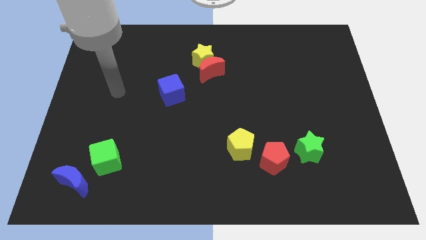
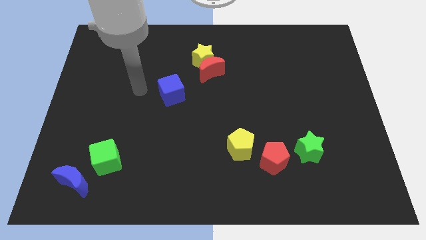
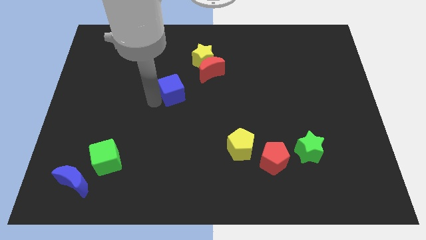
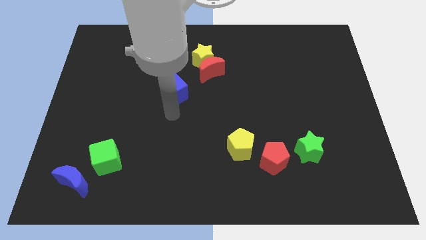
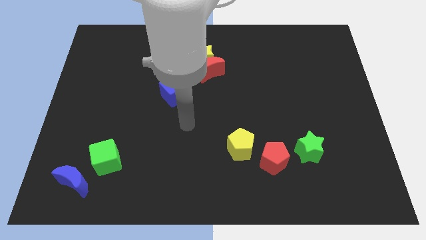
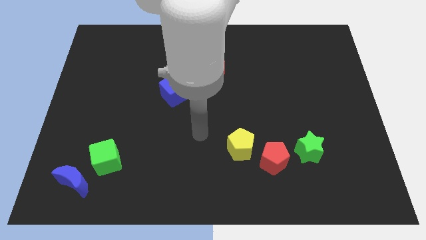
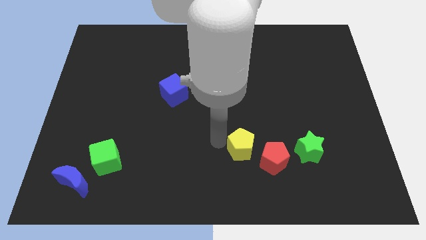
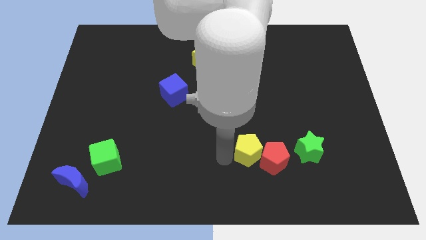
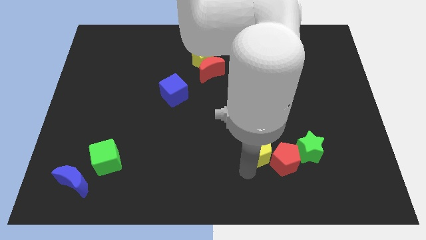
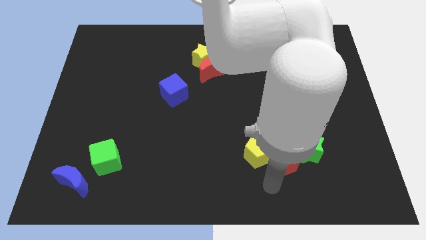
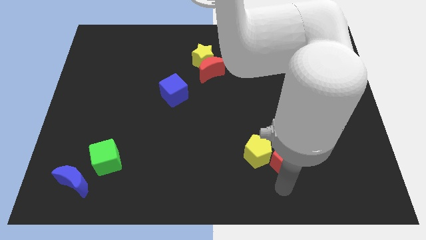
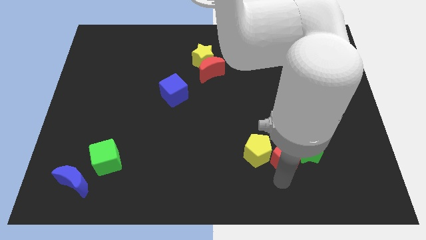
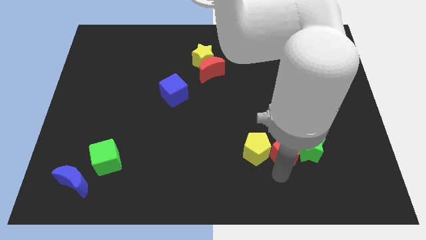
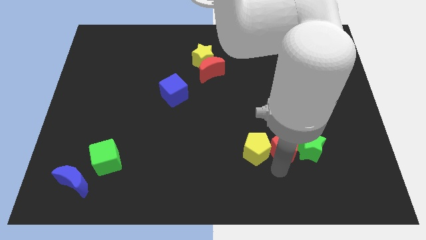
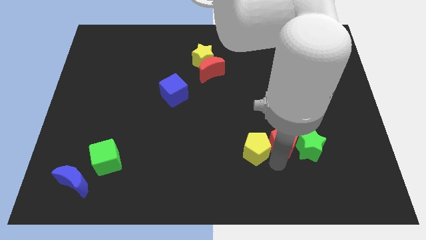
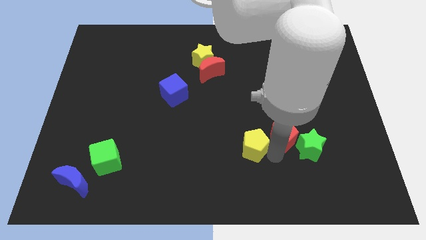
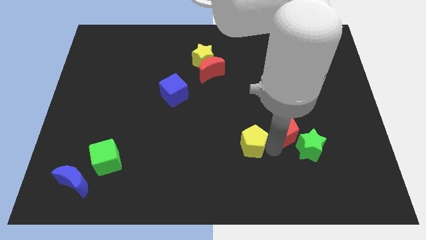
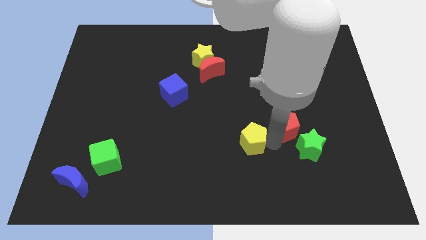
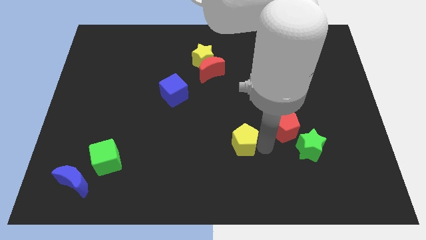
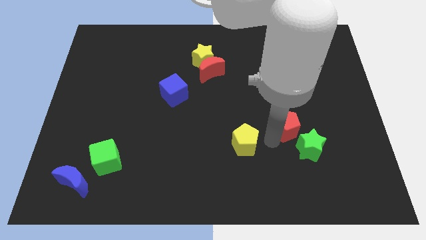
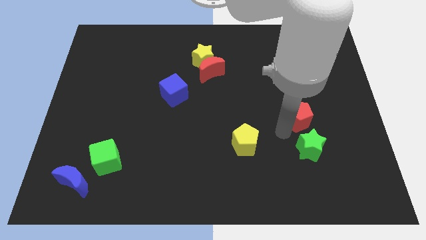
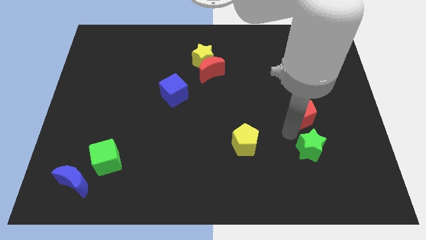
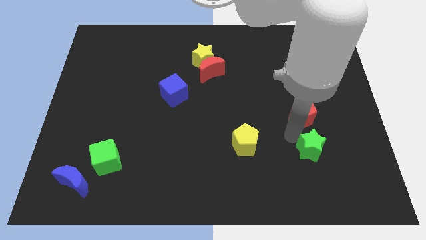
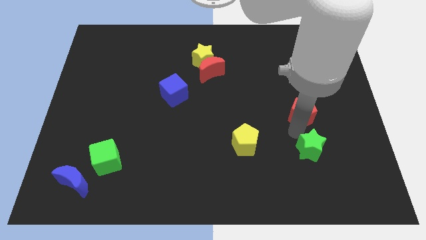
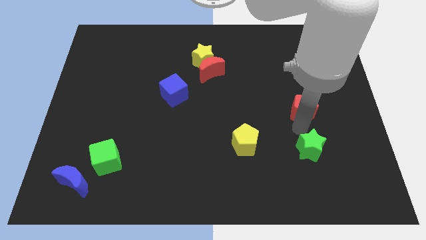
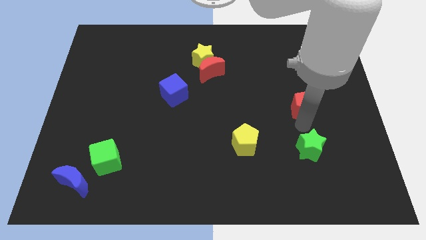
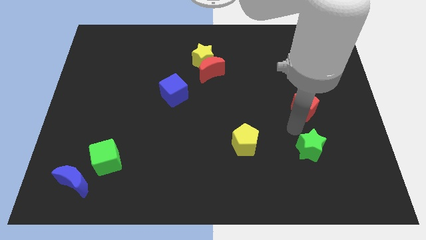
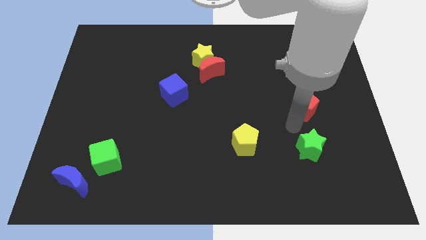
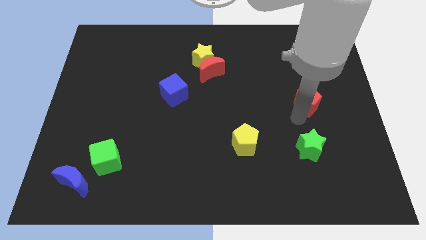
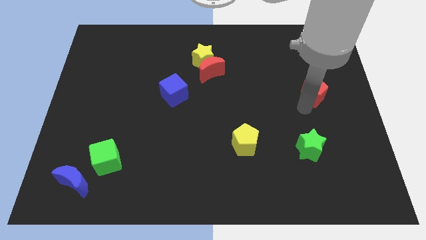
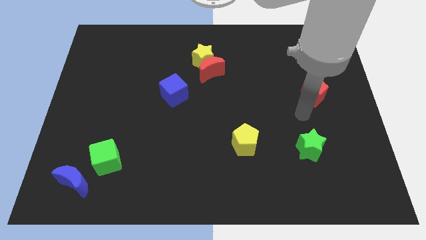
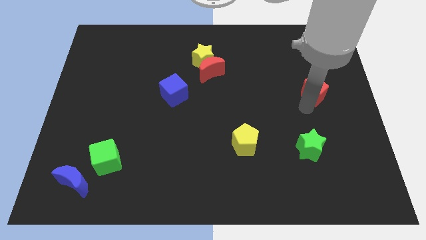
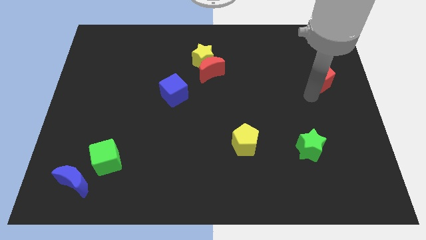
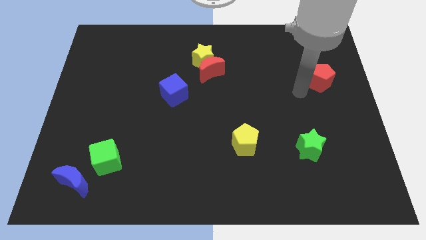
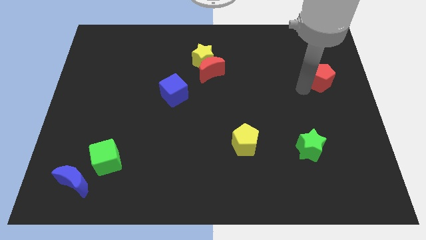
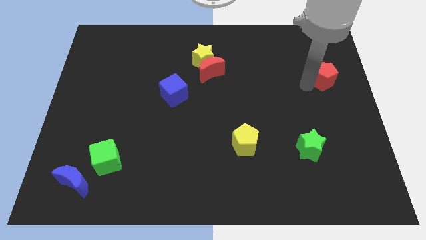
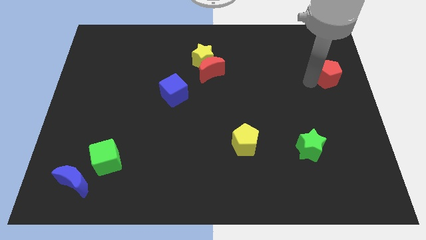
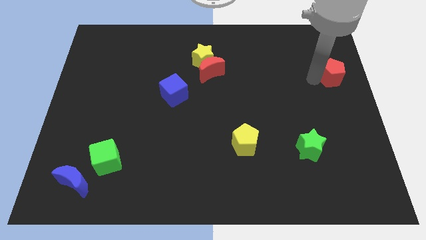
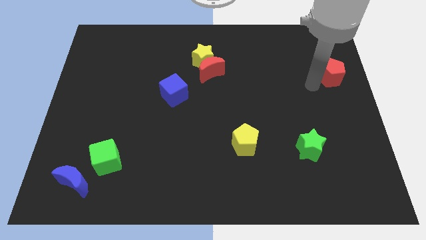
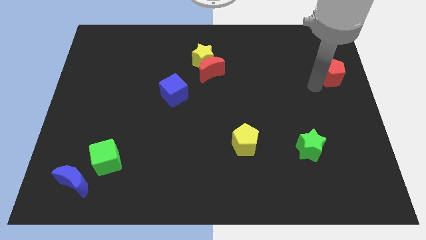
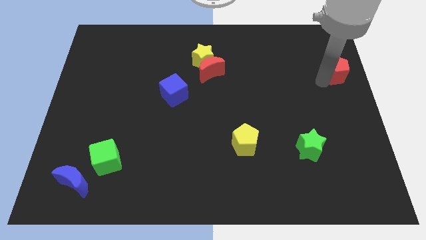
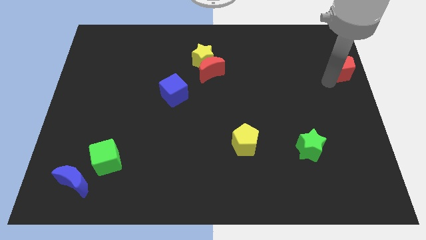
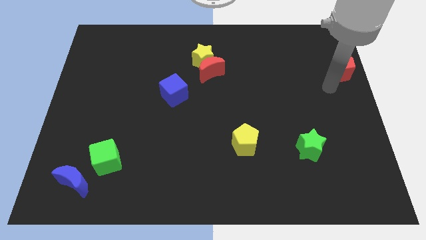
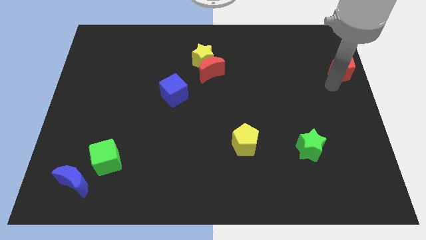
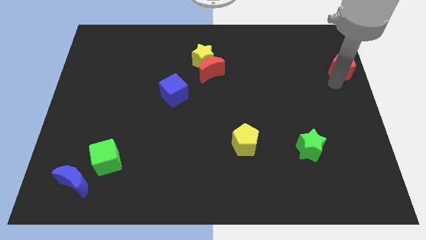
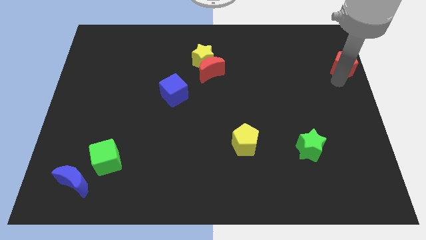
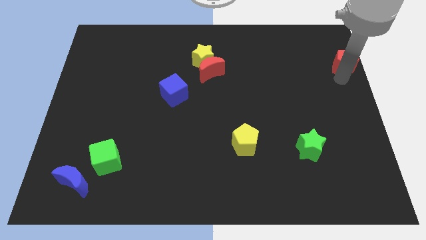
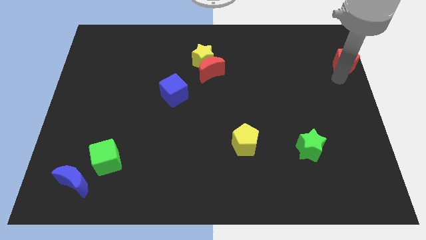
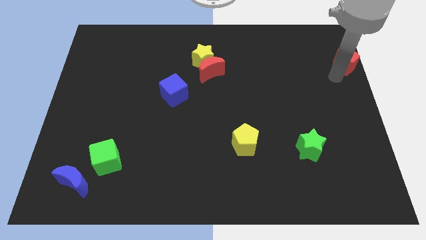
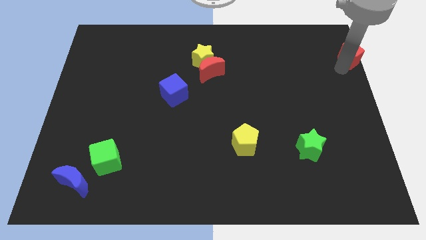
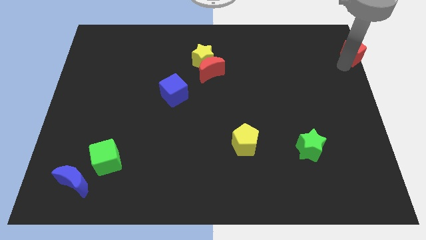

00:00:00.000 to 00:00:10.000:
push the red pentagon to the top right

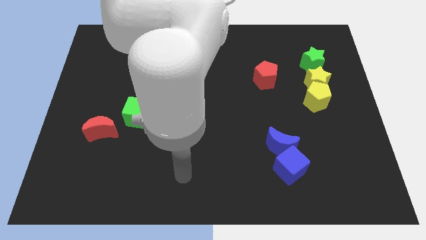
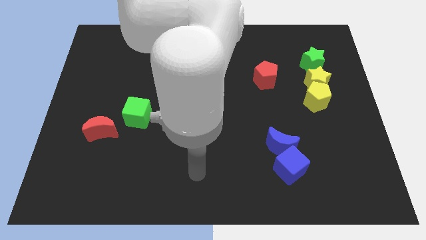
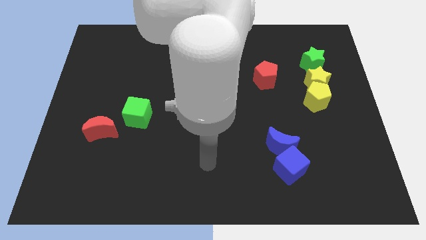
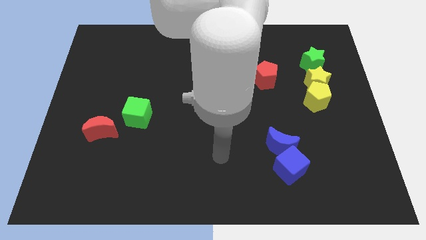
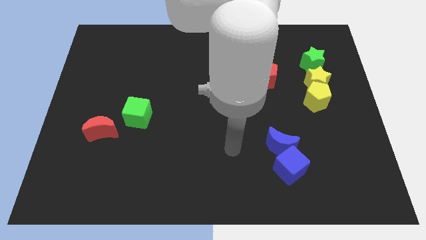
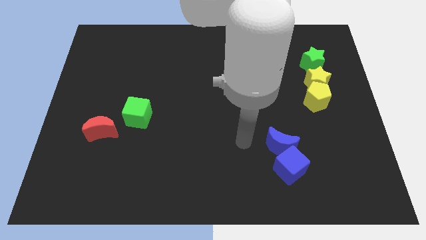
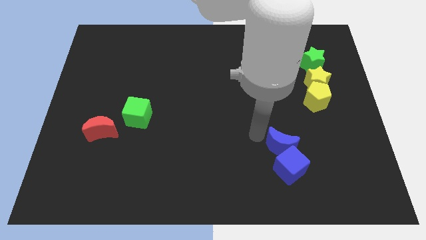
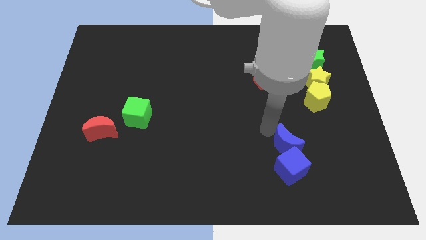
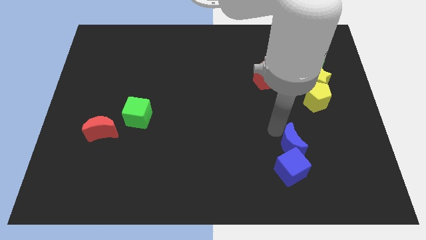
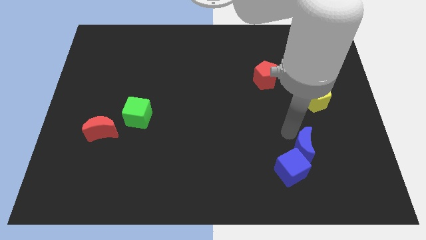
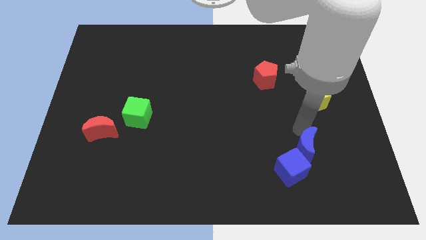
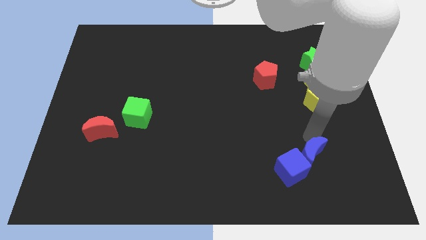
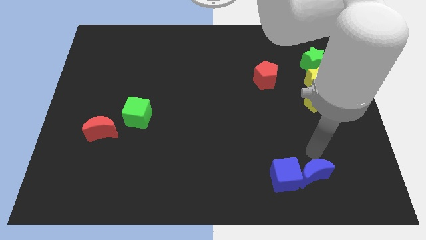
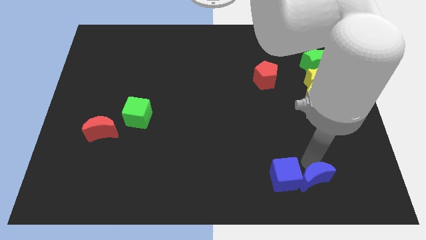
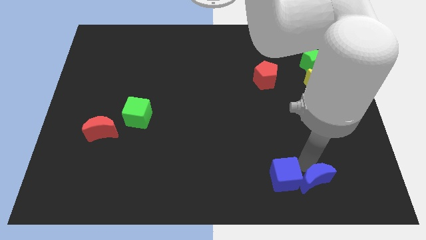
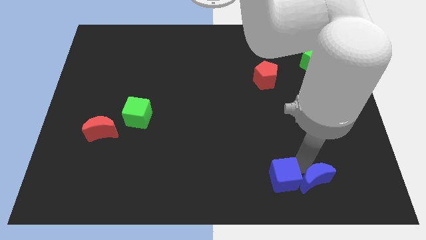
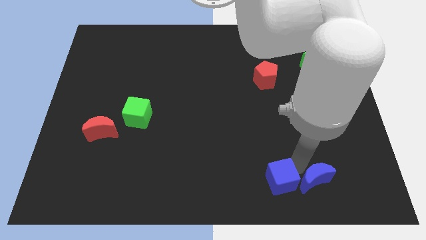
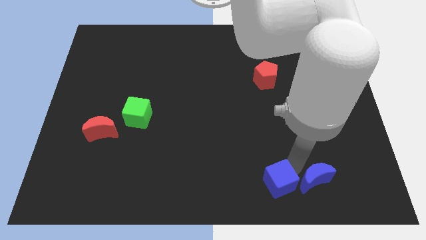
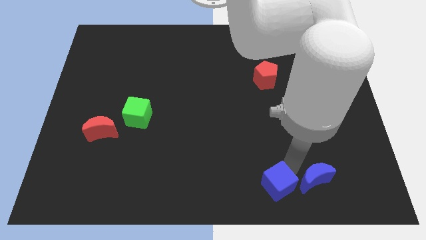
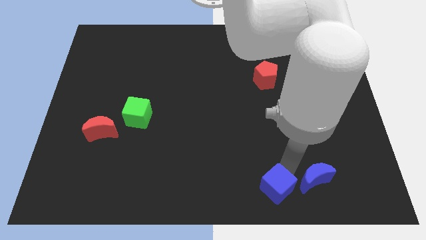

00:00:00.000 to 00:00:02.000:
slide the blue cube to the bottom side

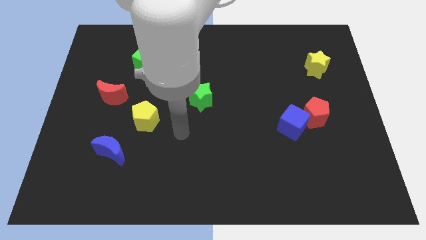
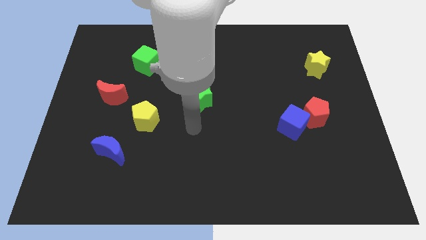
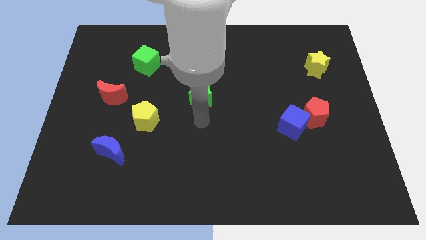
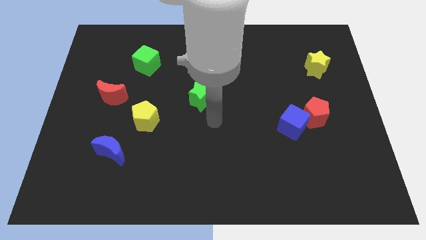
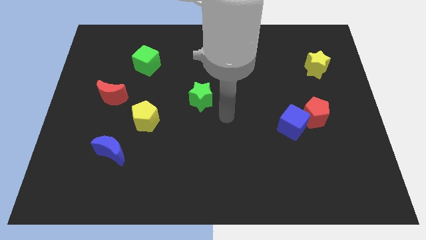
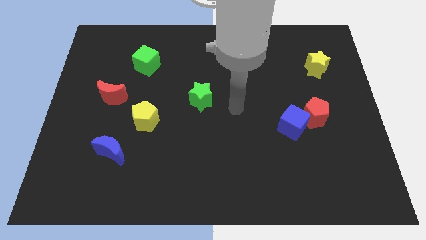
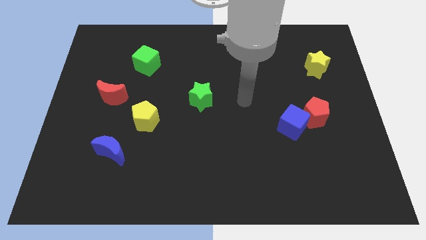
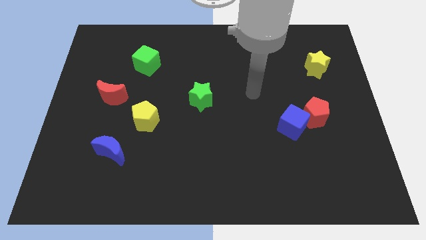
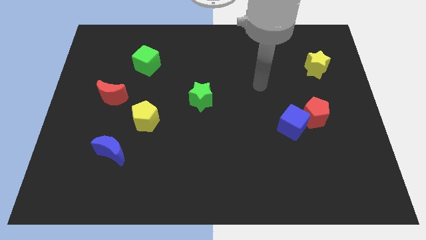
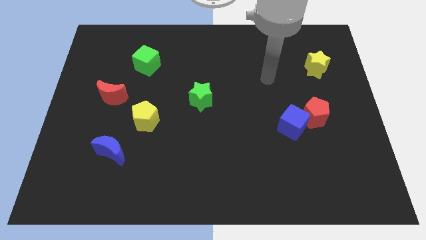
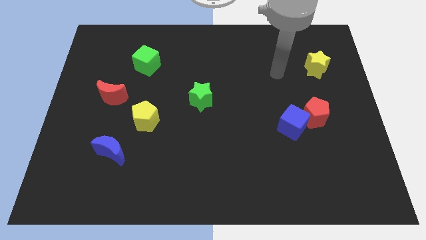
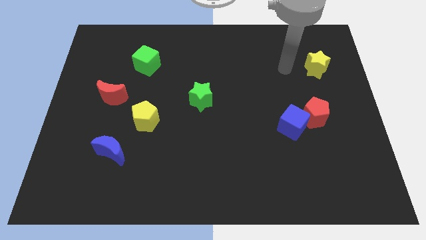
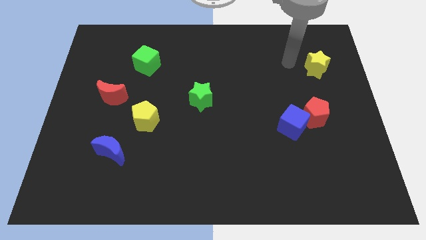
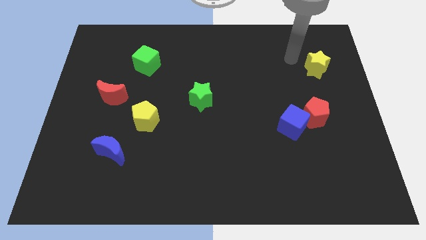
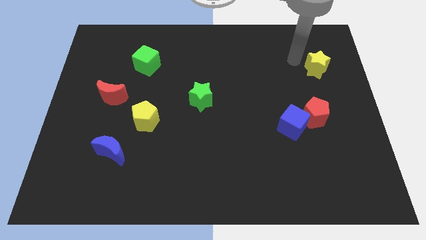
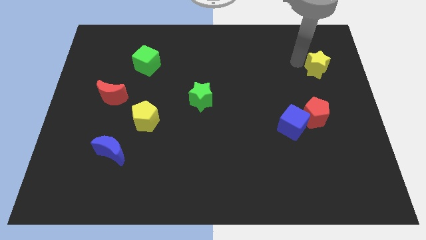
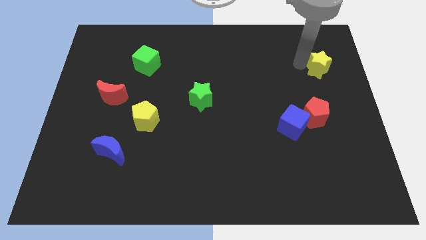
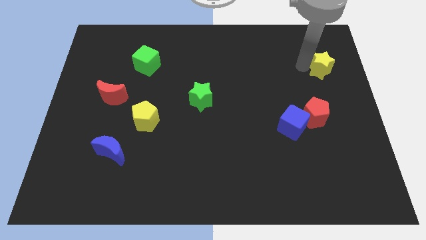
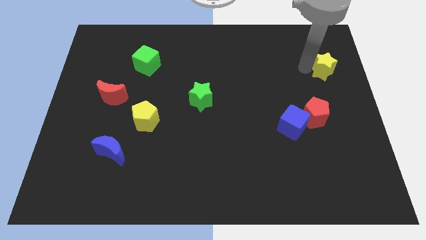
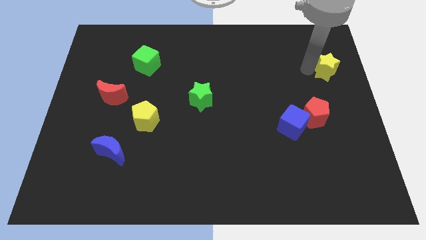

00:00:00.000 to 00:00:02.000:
put the yellow star to the right side of the board
